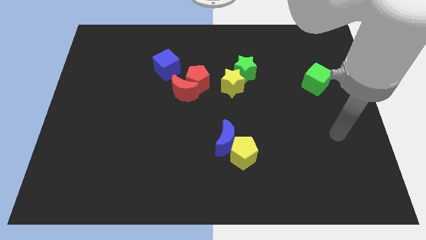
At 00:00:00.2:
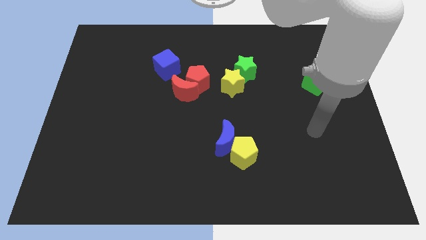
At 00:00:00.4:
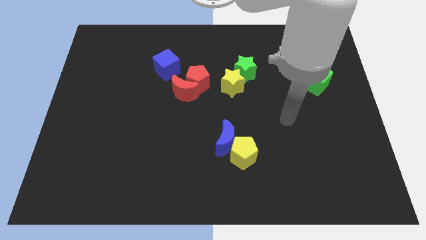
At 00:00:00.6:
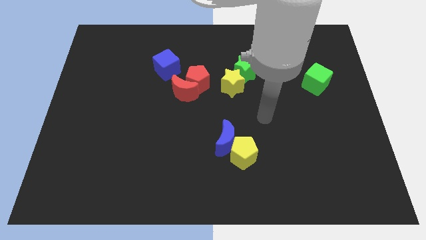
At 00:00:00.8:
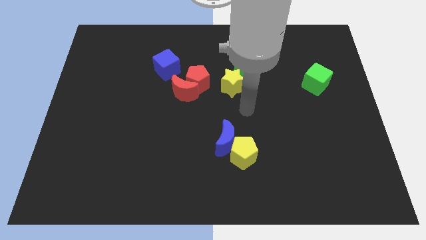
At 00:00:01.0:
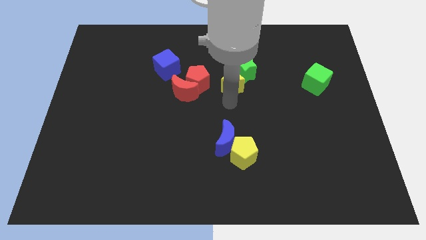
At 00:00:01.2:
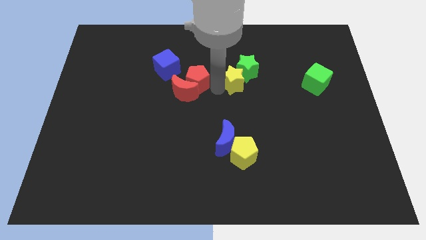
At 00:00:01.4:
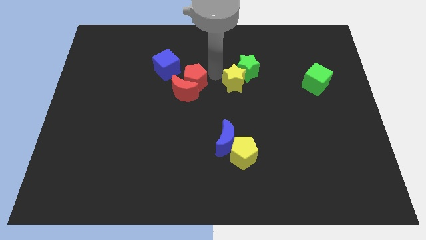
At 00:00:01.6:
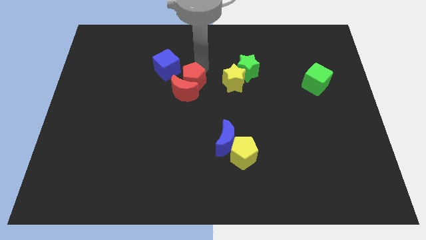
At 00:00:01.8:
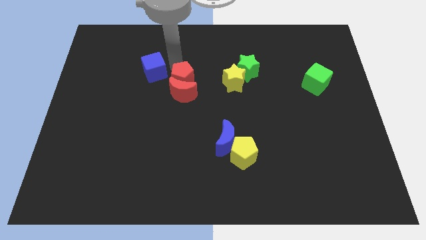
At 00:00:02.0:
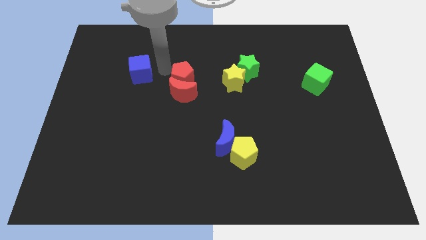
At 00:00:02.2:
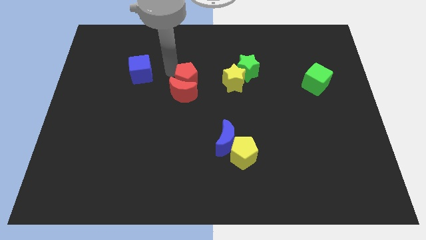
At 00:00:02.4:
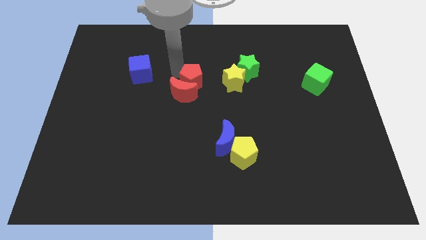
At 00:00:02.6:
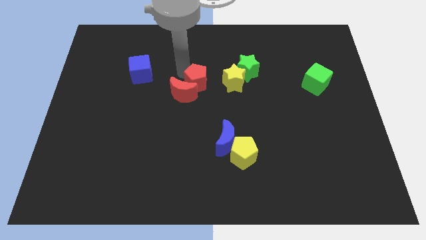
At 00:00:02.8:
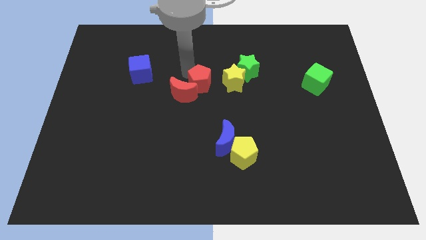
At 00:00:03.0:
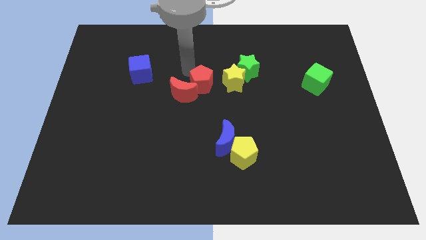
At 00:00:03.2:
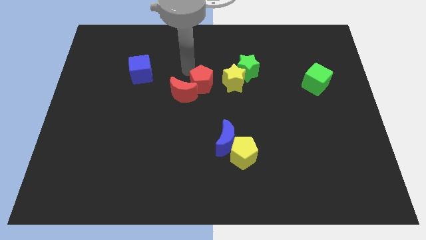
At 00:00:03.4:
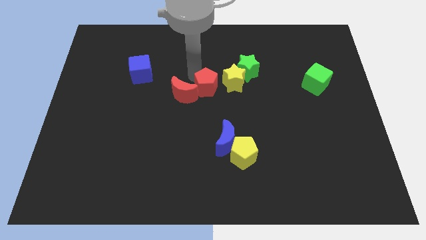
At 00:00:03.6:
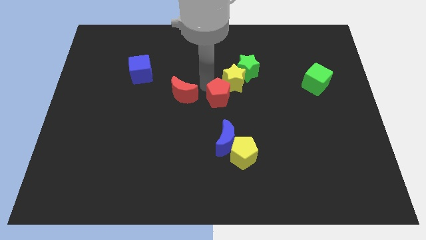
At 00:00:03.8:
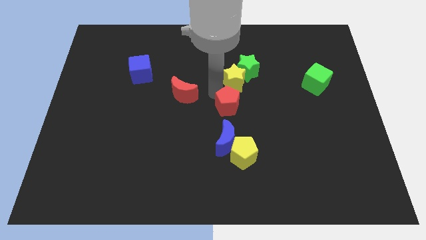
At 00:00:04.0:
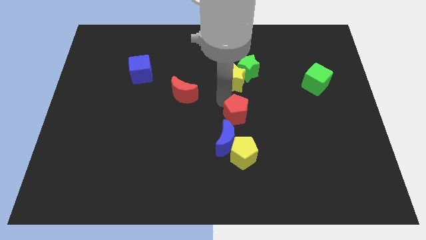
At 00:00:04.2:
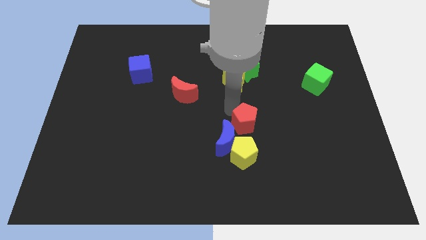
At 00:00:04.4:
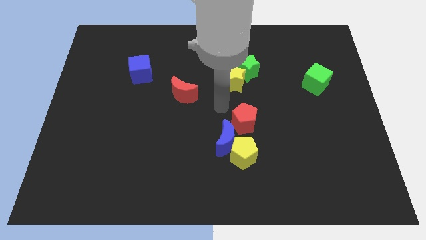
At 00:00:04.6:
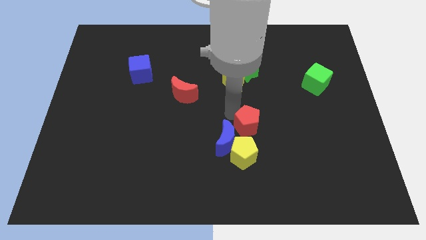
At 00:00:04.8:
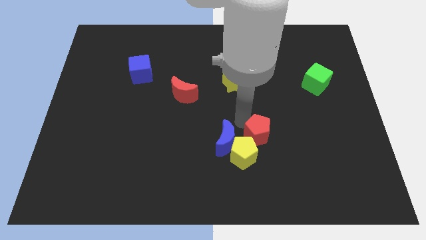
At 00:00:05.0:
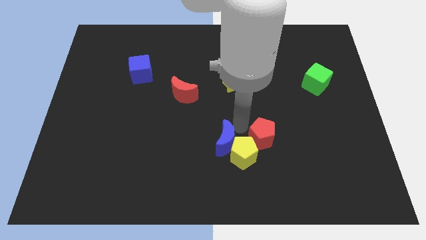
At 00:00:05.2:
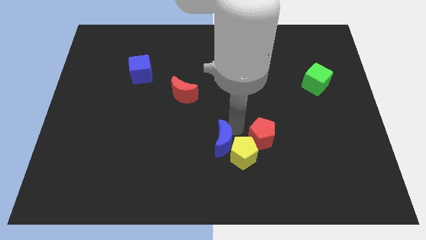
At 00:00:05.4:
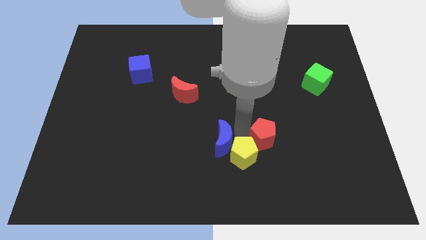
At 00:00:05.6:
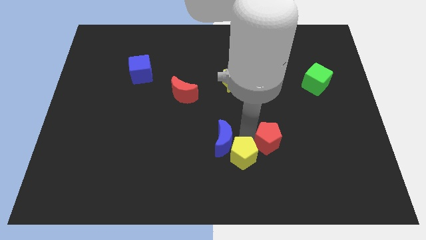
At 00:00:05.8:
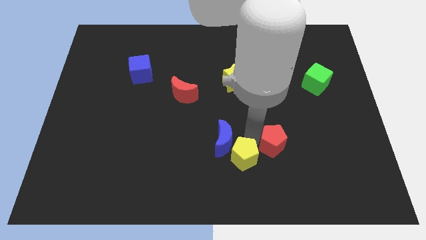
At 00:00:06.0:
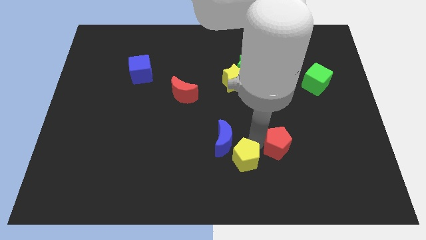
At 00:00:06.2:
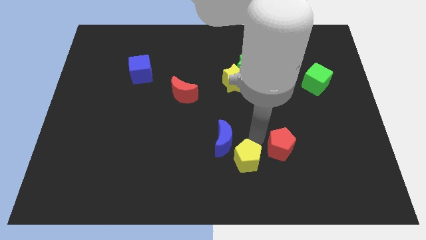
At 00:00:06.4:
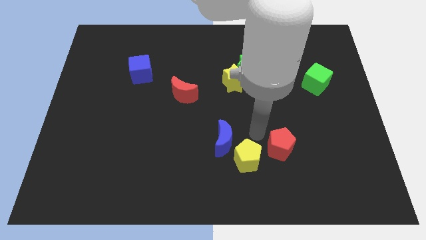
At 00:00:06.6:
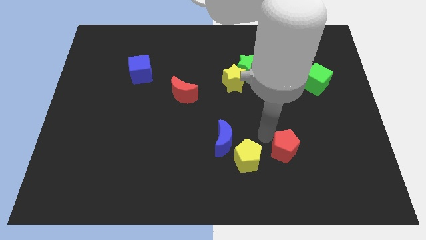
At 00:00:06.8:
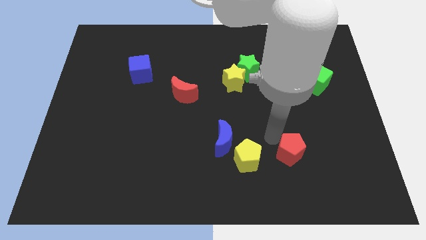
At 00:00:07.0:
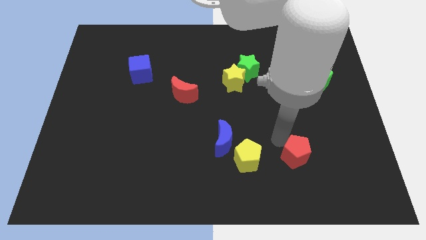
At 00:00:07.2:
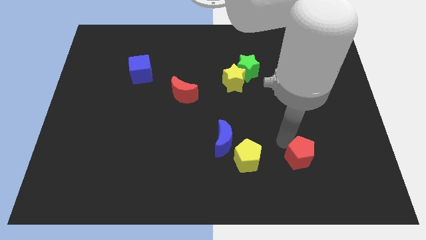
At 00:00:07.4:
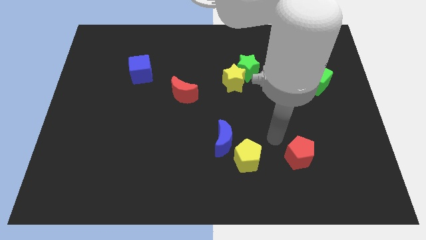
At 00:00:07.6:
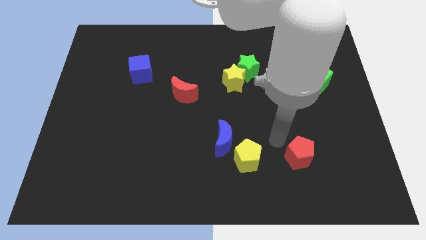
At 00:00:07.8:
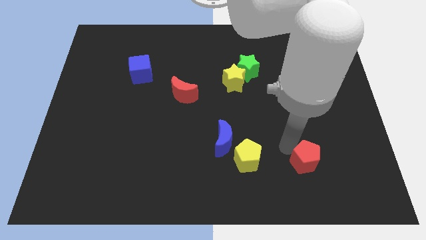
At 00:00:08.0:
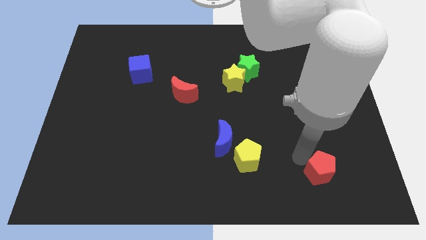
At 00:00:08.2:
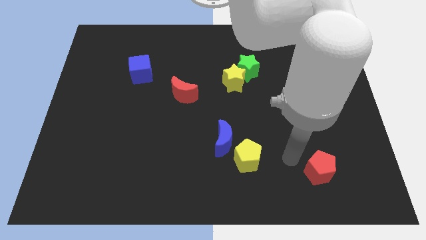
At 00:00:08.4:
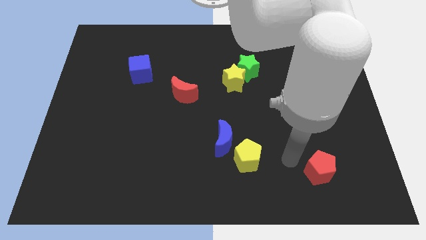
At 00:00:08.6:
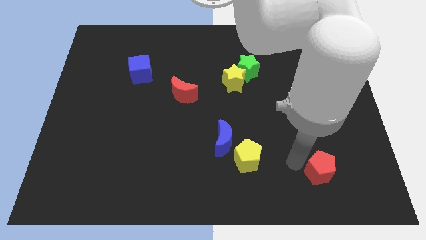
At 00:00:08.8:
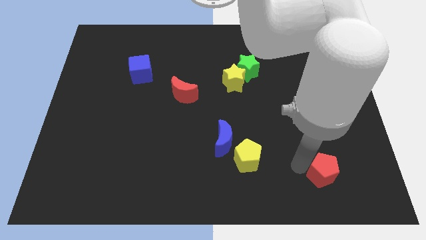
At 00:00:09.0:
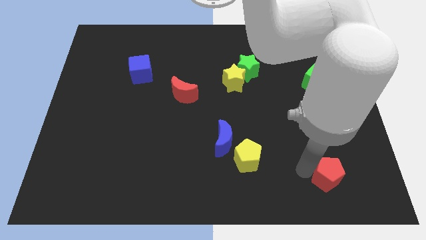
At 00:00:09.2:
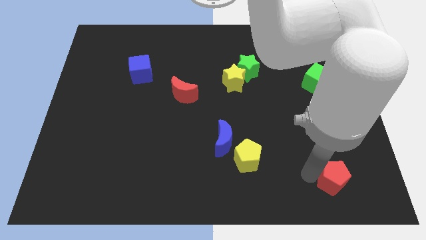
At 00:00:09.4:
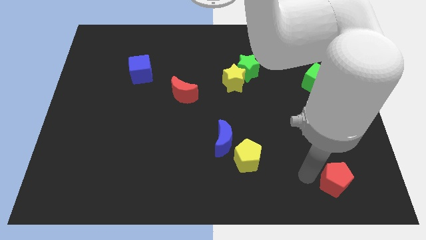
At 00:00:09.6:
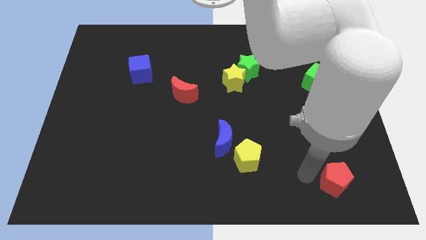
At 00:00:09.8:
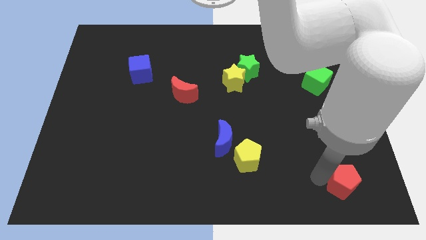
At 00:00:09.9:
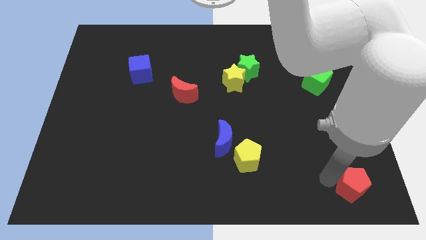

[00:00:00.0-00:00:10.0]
slide the red pentagon to the bottom right of the board

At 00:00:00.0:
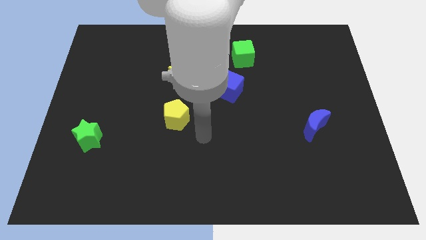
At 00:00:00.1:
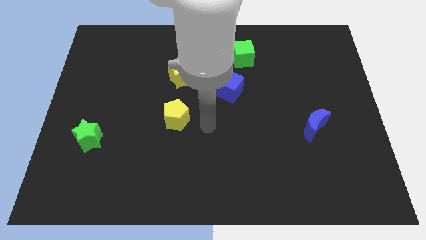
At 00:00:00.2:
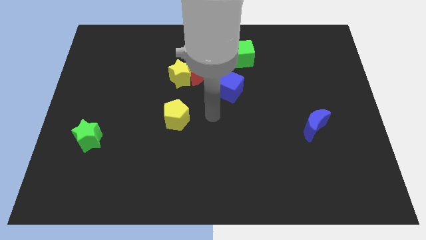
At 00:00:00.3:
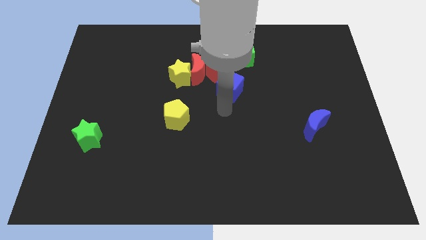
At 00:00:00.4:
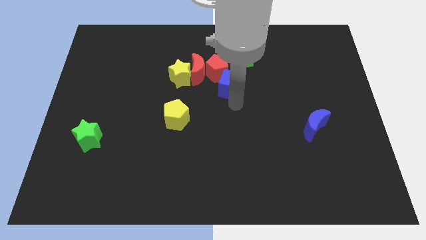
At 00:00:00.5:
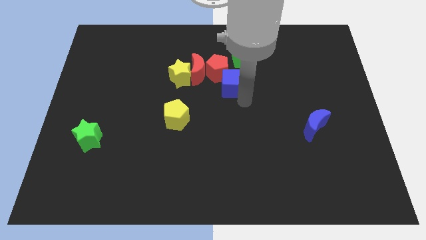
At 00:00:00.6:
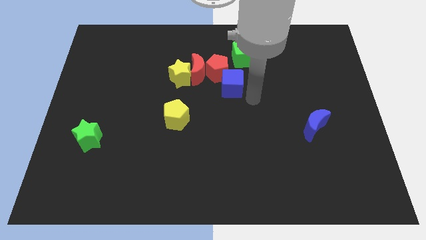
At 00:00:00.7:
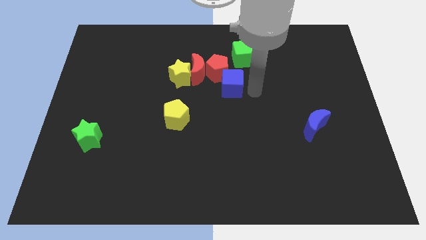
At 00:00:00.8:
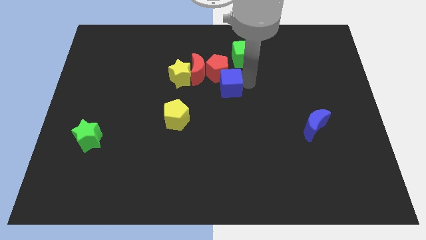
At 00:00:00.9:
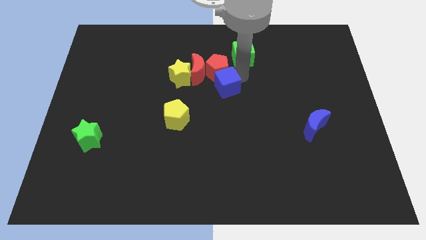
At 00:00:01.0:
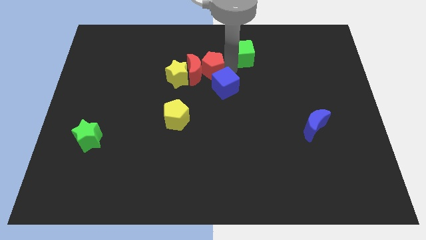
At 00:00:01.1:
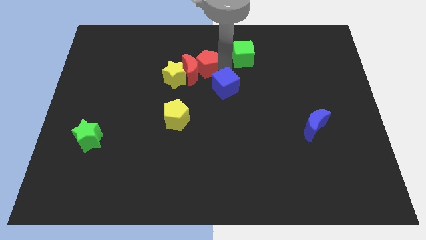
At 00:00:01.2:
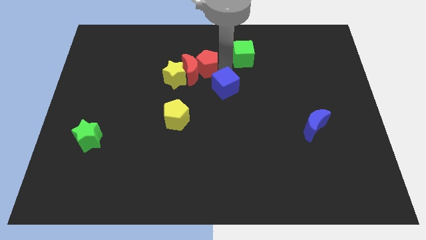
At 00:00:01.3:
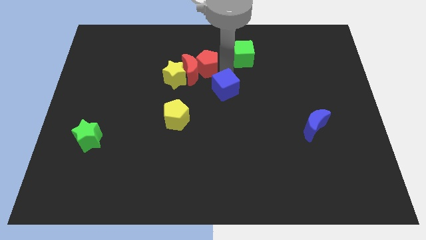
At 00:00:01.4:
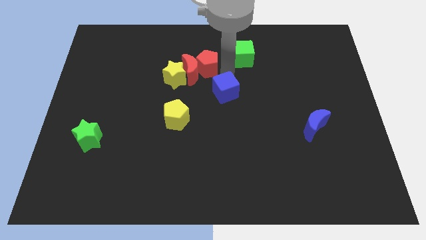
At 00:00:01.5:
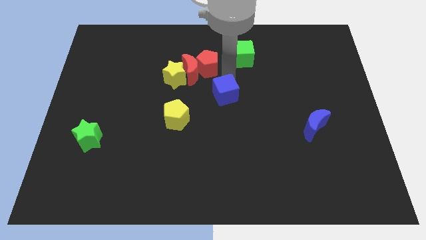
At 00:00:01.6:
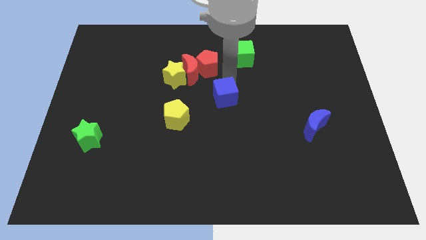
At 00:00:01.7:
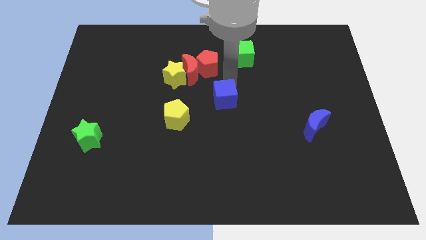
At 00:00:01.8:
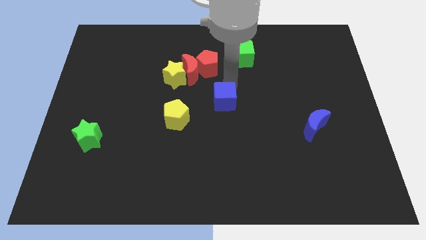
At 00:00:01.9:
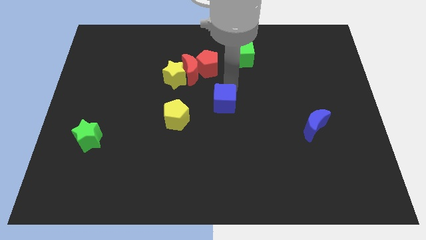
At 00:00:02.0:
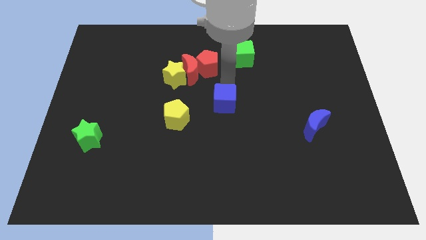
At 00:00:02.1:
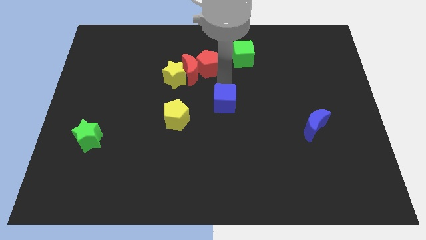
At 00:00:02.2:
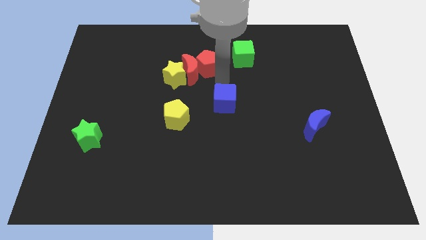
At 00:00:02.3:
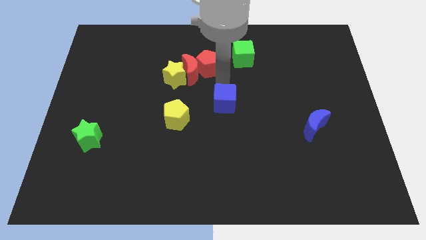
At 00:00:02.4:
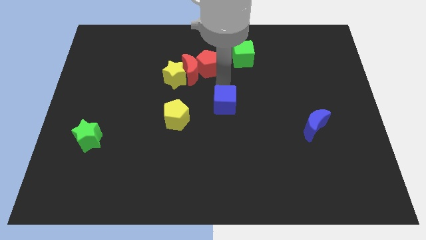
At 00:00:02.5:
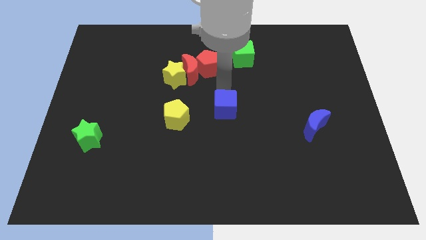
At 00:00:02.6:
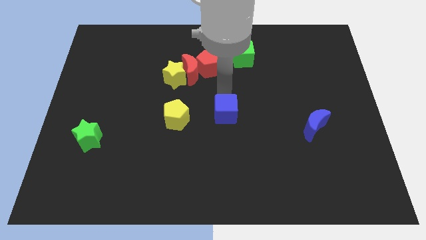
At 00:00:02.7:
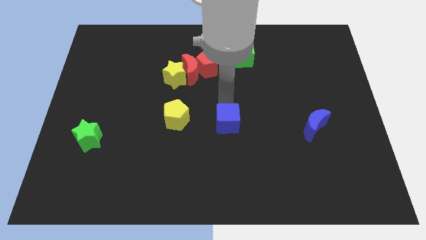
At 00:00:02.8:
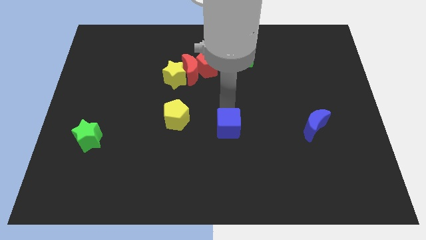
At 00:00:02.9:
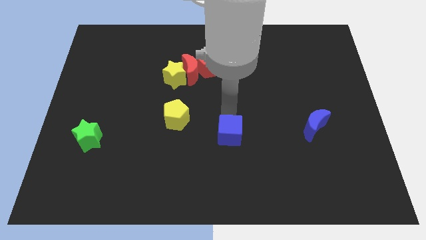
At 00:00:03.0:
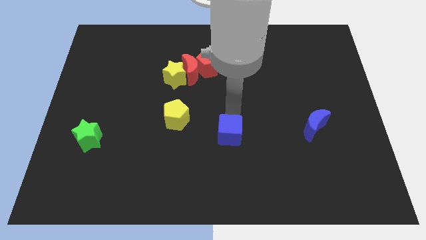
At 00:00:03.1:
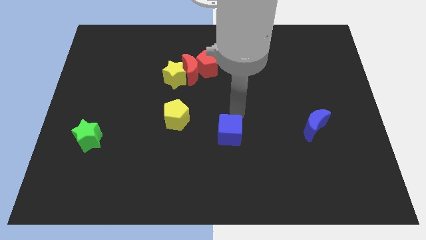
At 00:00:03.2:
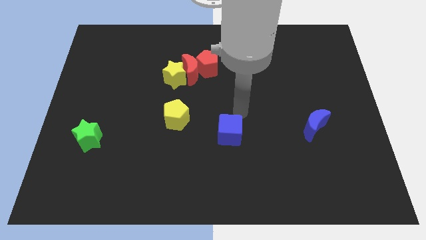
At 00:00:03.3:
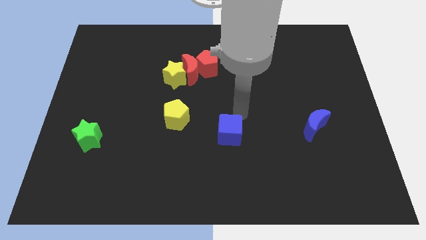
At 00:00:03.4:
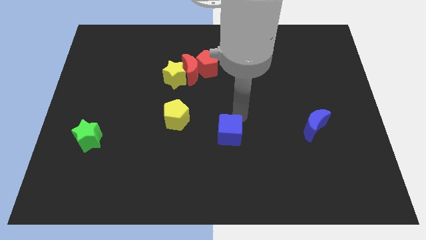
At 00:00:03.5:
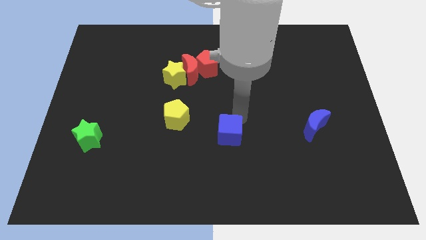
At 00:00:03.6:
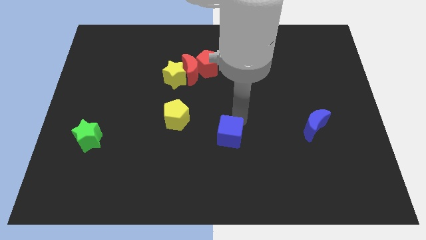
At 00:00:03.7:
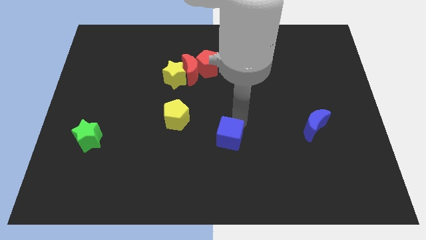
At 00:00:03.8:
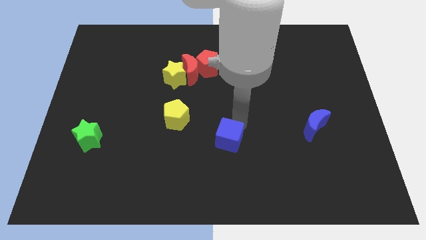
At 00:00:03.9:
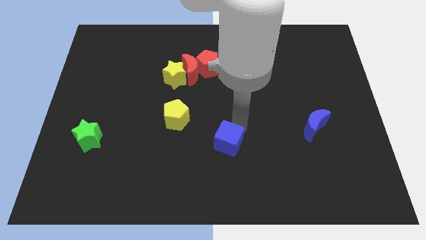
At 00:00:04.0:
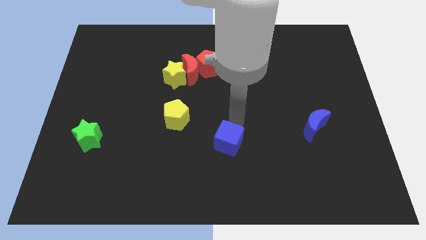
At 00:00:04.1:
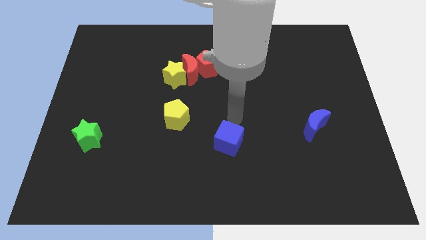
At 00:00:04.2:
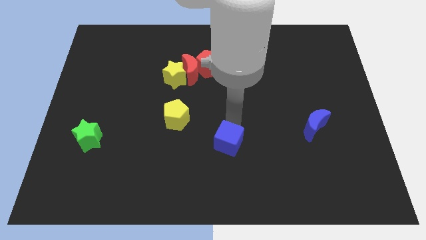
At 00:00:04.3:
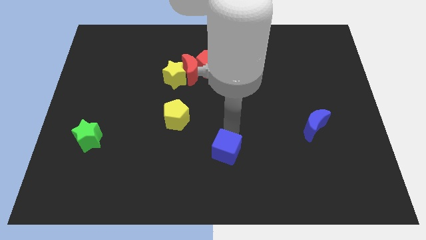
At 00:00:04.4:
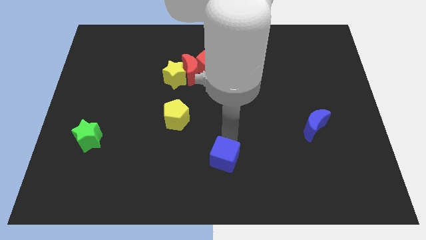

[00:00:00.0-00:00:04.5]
put the blue cube to the bottom side
